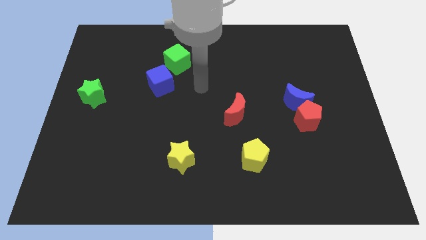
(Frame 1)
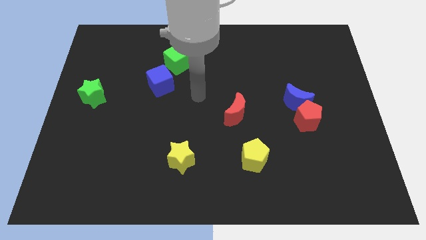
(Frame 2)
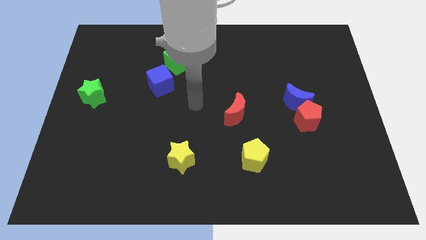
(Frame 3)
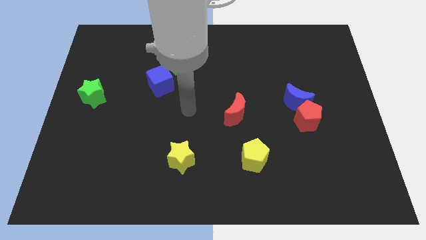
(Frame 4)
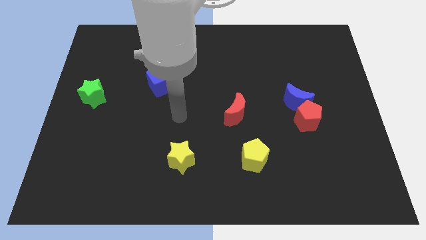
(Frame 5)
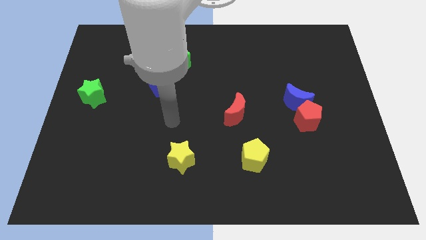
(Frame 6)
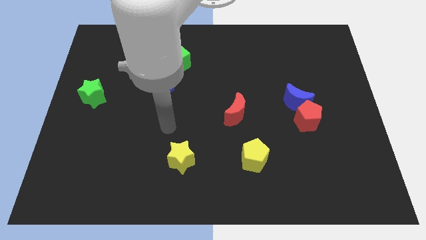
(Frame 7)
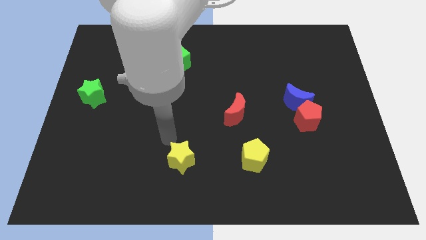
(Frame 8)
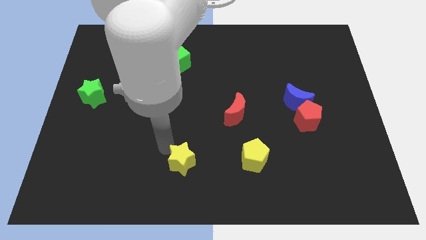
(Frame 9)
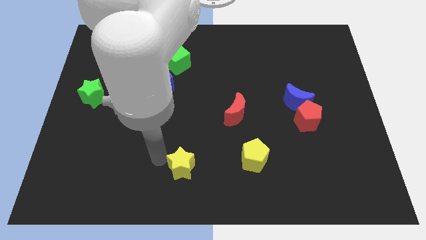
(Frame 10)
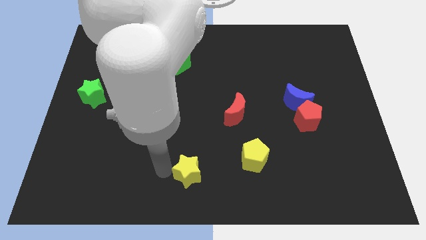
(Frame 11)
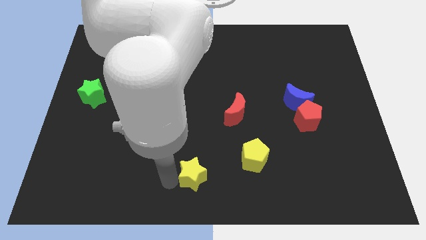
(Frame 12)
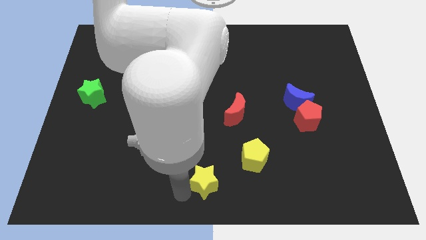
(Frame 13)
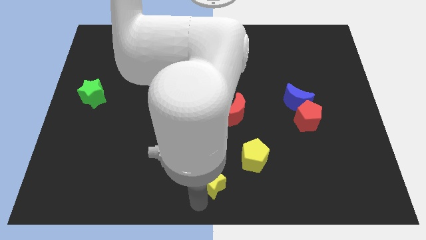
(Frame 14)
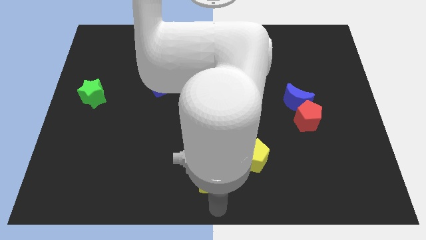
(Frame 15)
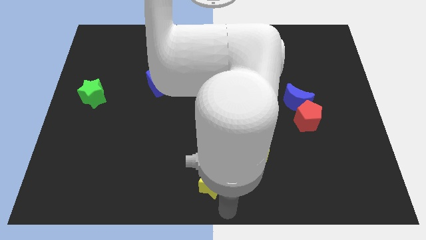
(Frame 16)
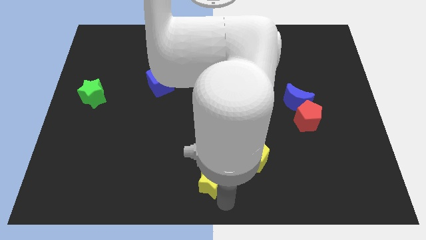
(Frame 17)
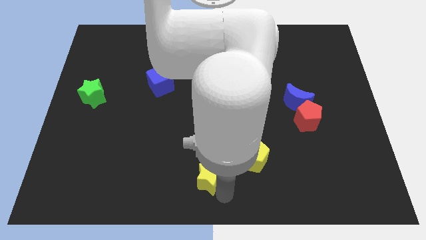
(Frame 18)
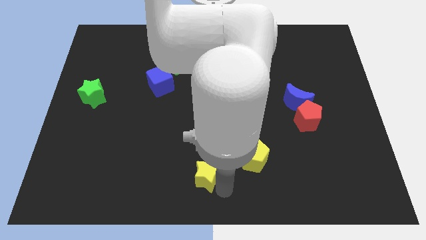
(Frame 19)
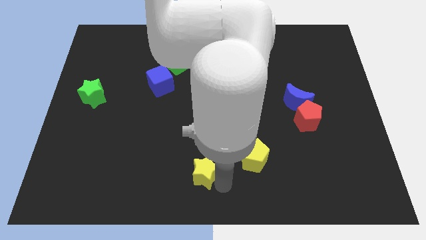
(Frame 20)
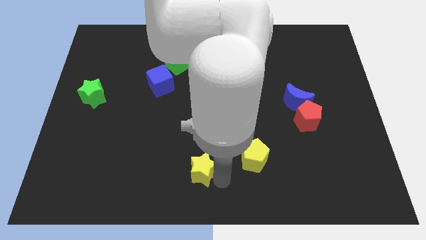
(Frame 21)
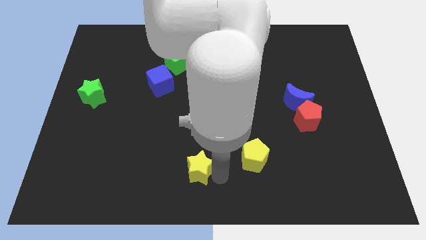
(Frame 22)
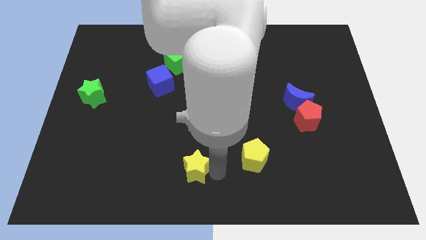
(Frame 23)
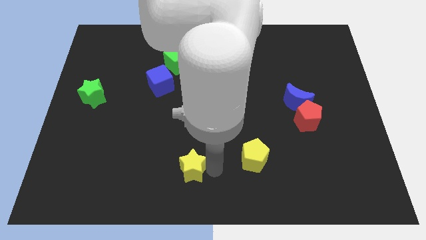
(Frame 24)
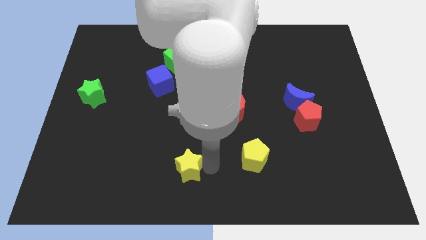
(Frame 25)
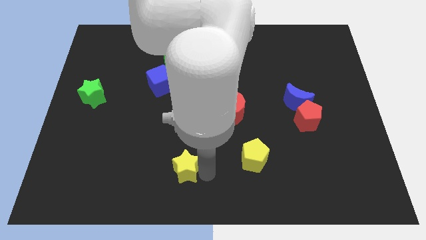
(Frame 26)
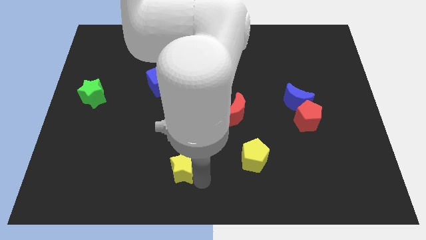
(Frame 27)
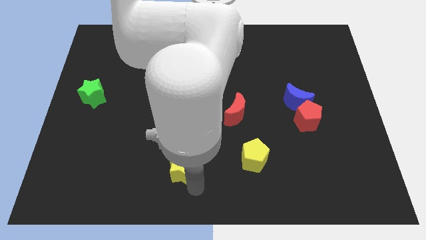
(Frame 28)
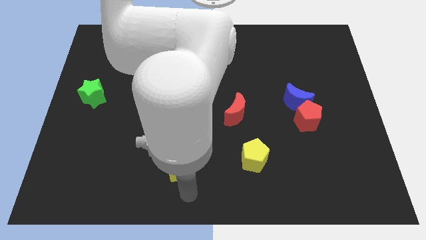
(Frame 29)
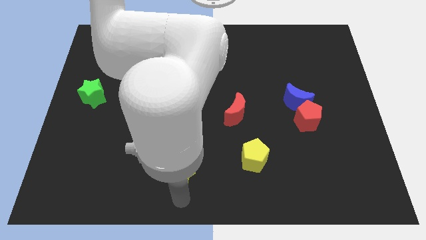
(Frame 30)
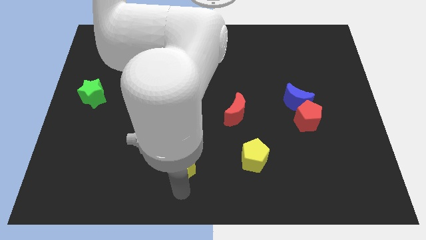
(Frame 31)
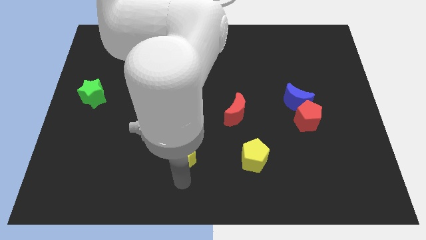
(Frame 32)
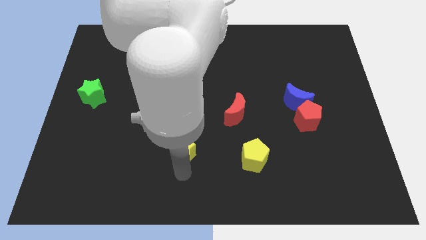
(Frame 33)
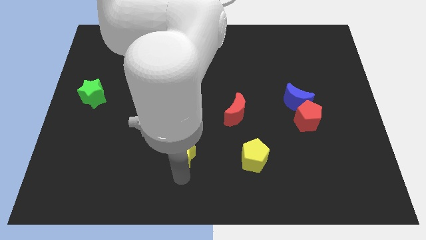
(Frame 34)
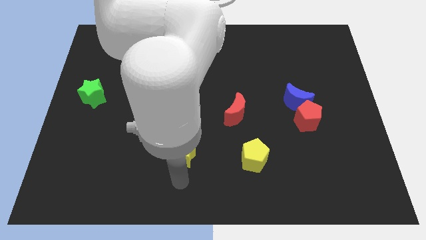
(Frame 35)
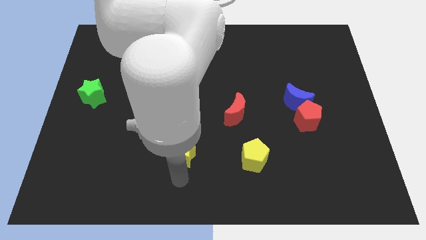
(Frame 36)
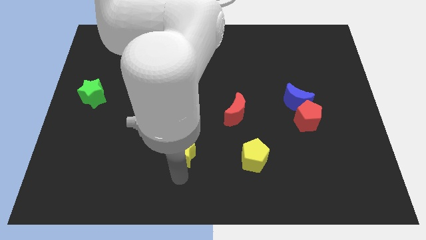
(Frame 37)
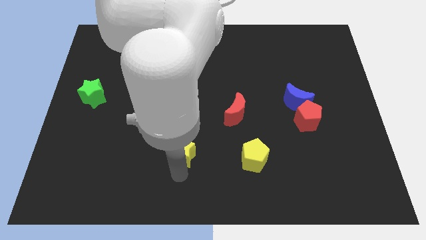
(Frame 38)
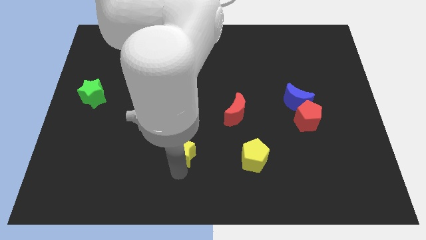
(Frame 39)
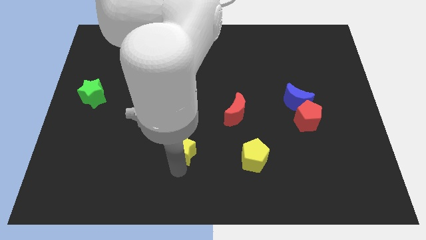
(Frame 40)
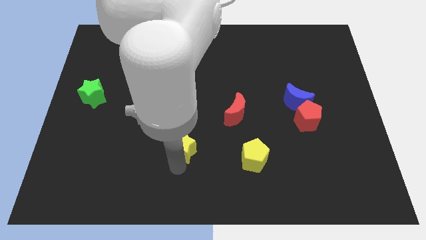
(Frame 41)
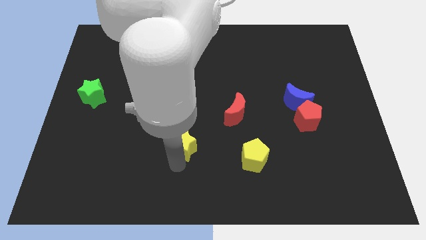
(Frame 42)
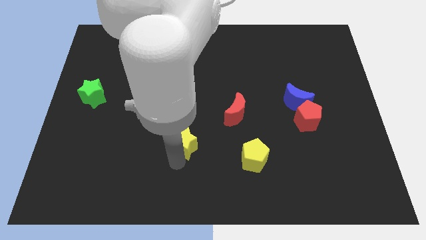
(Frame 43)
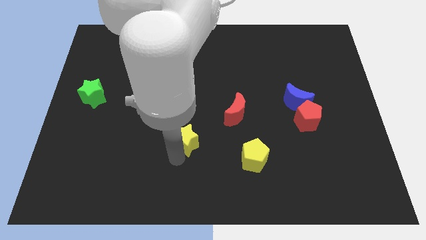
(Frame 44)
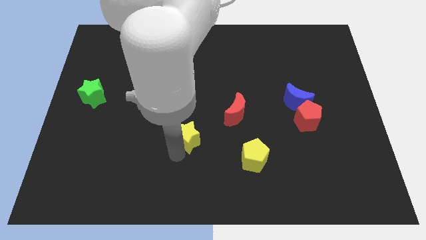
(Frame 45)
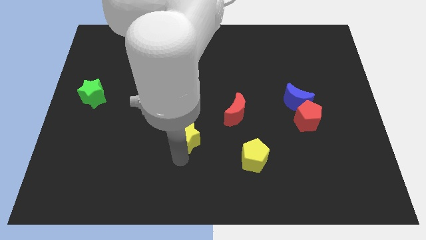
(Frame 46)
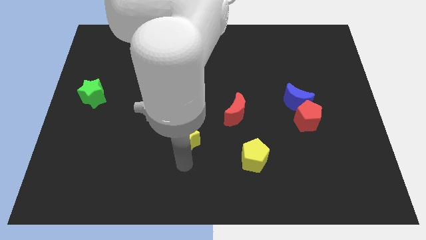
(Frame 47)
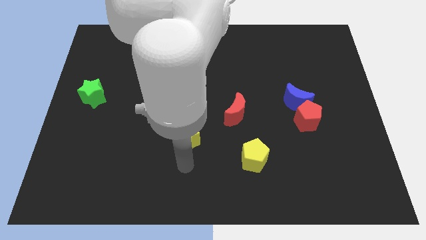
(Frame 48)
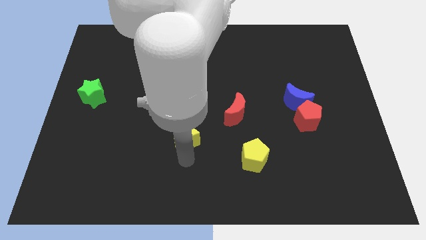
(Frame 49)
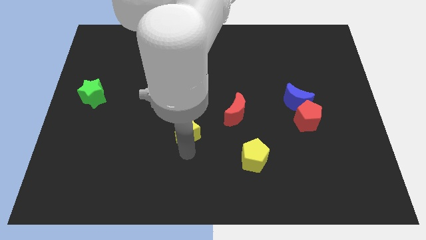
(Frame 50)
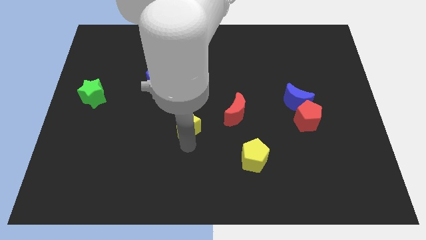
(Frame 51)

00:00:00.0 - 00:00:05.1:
move the yellow star to the left of the red moon

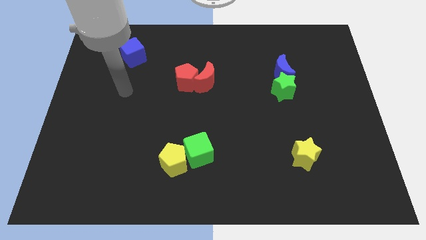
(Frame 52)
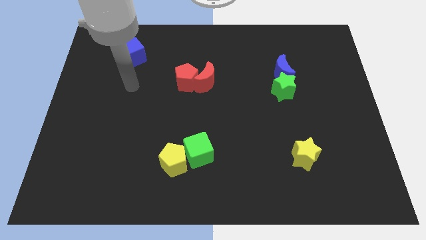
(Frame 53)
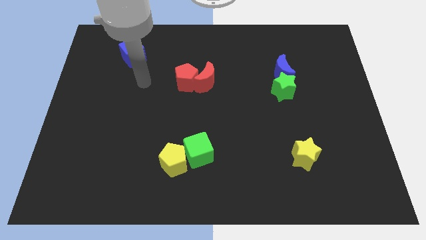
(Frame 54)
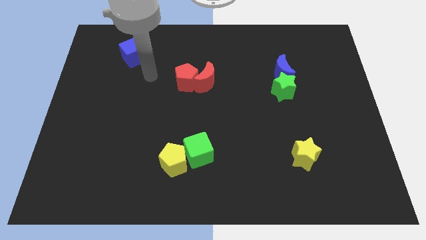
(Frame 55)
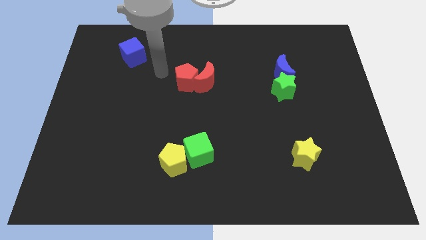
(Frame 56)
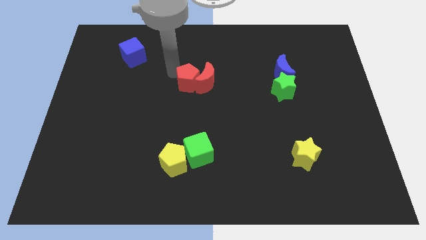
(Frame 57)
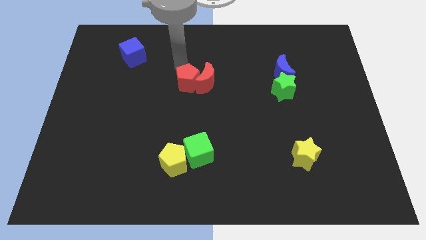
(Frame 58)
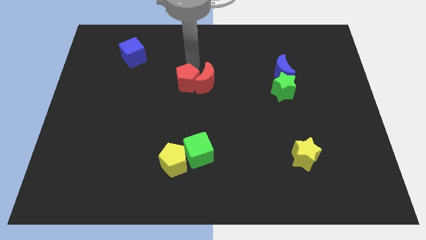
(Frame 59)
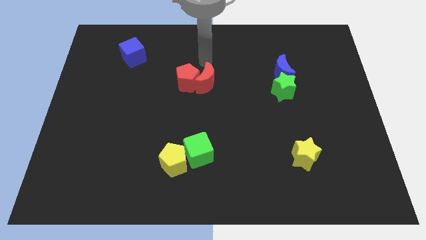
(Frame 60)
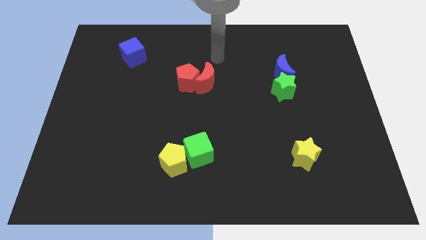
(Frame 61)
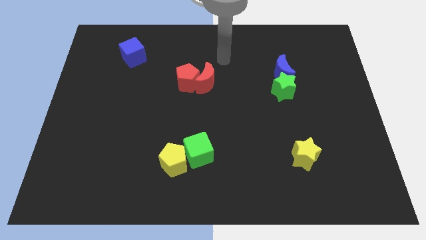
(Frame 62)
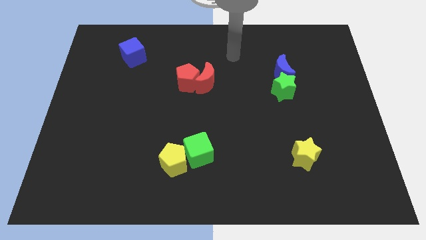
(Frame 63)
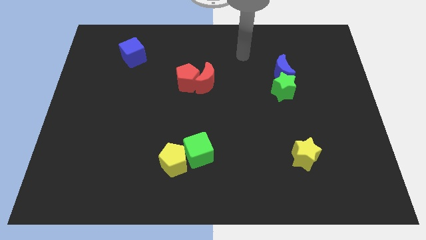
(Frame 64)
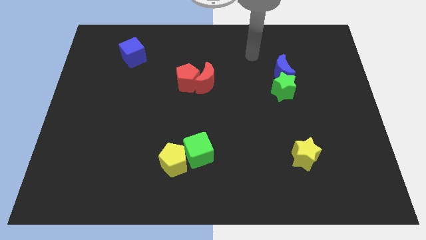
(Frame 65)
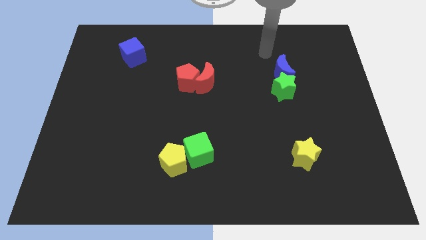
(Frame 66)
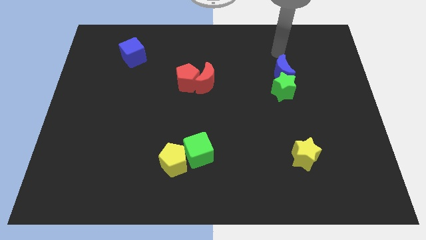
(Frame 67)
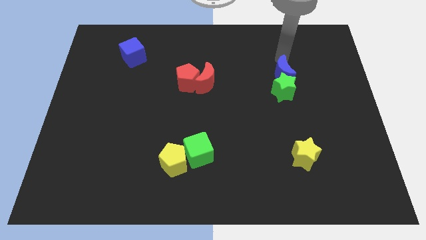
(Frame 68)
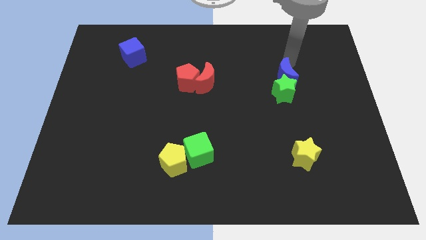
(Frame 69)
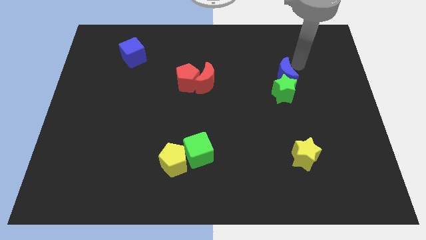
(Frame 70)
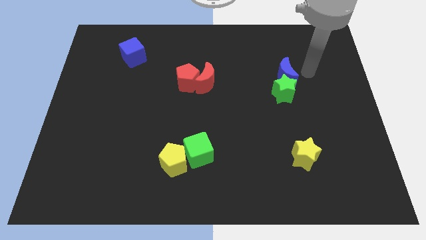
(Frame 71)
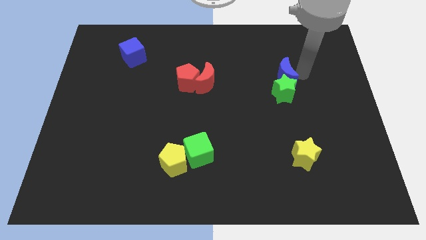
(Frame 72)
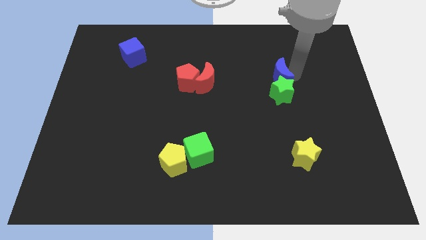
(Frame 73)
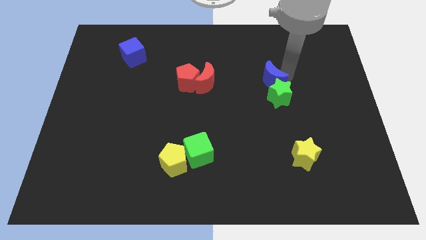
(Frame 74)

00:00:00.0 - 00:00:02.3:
push the blue moon just right of the red moon
